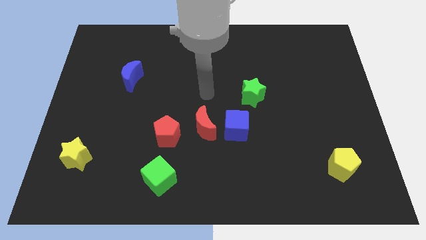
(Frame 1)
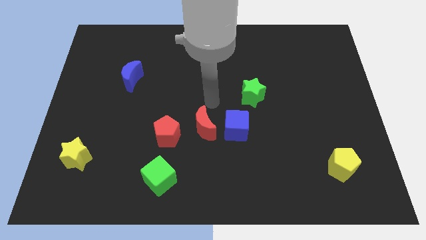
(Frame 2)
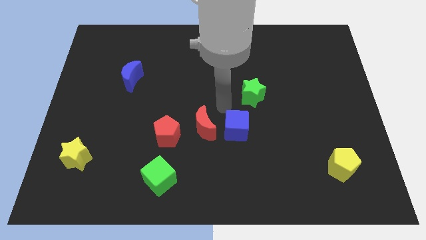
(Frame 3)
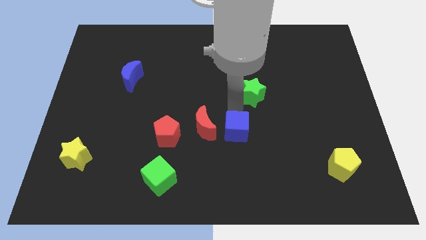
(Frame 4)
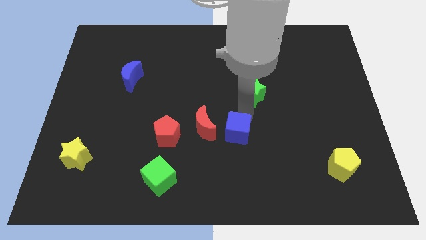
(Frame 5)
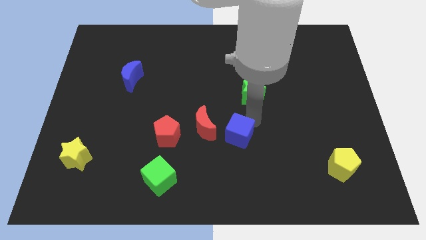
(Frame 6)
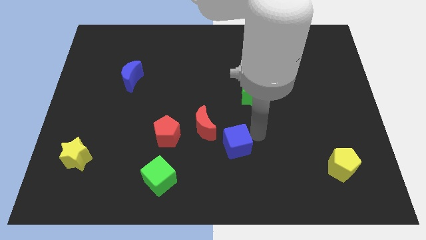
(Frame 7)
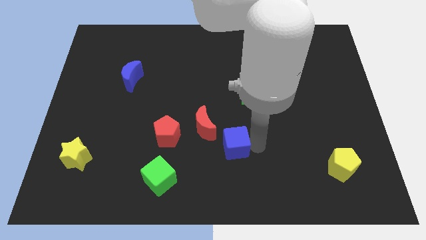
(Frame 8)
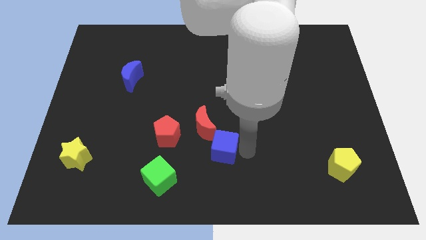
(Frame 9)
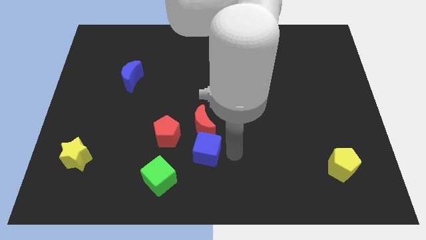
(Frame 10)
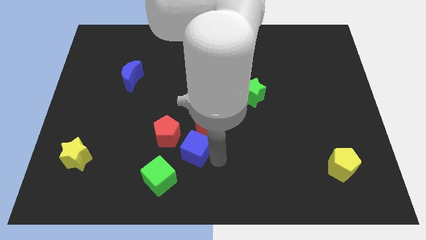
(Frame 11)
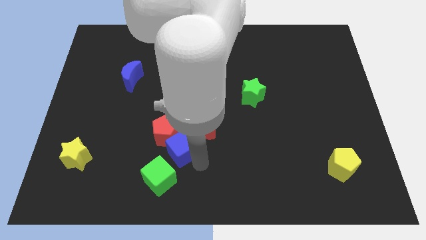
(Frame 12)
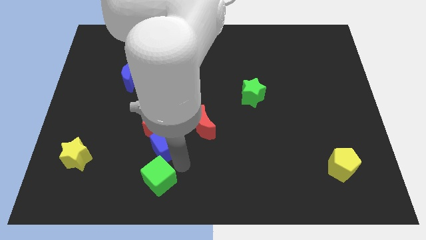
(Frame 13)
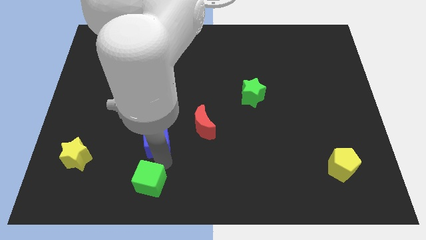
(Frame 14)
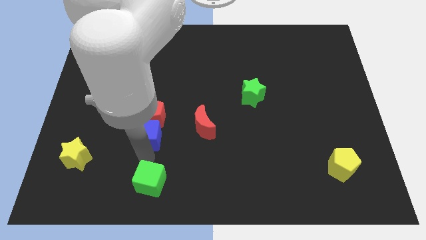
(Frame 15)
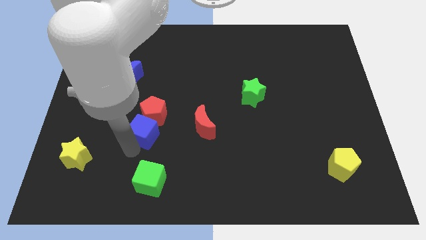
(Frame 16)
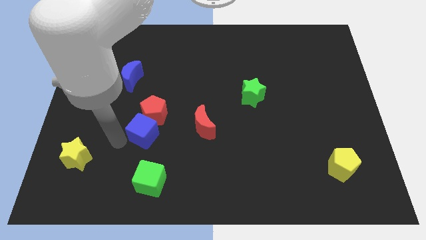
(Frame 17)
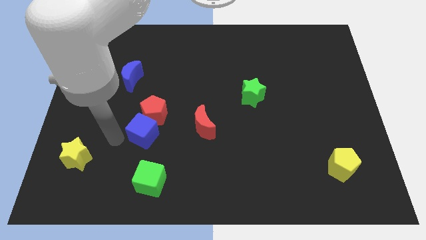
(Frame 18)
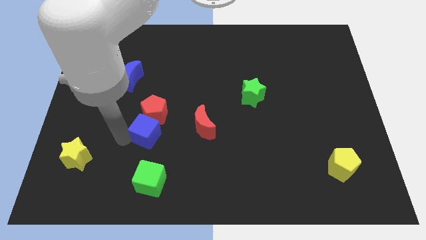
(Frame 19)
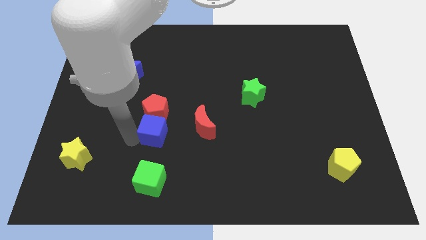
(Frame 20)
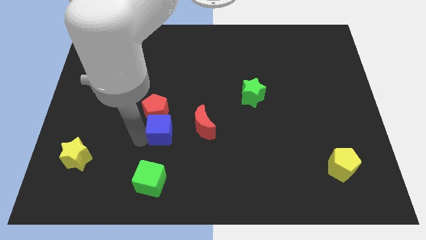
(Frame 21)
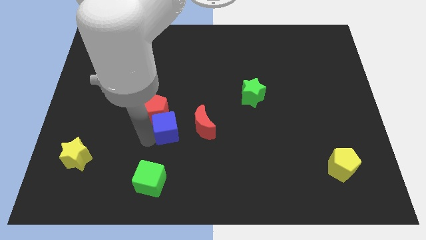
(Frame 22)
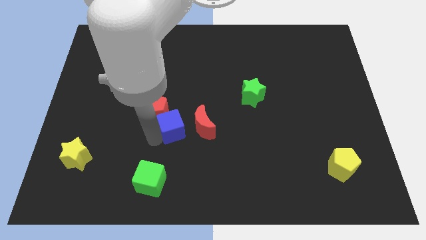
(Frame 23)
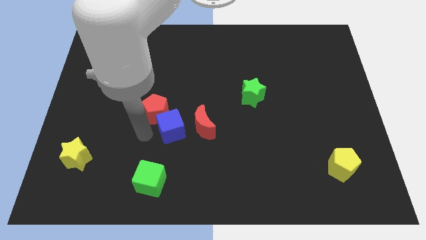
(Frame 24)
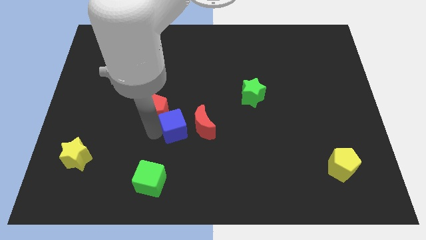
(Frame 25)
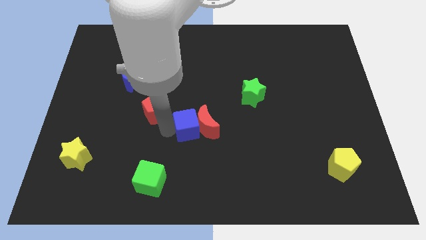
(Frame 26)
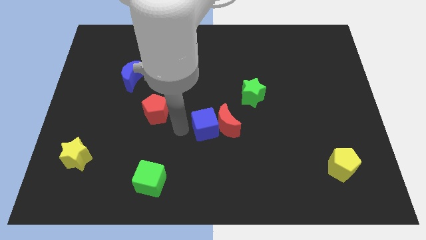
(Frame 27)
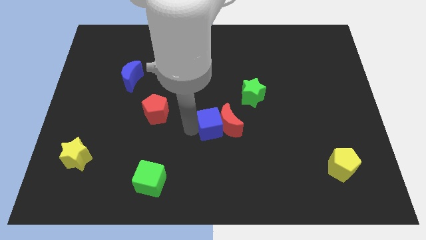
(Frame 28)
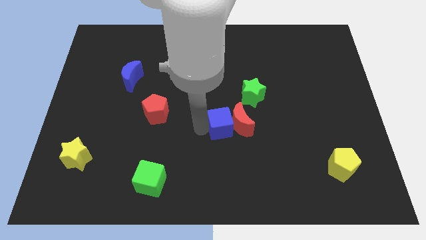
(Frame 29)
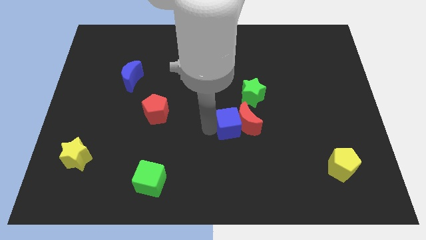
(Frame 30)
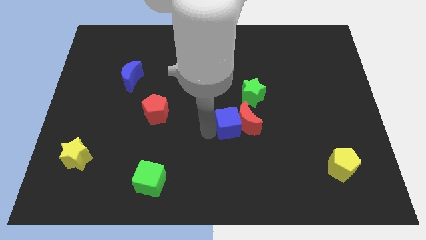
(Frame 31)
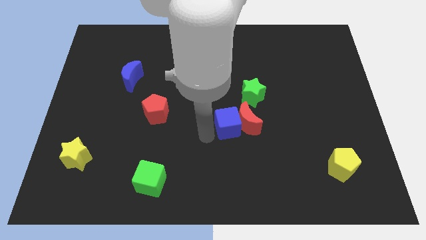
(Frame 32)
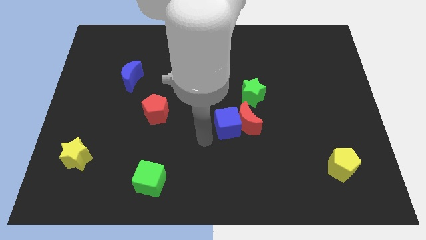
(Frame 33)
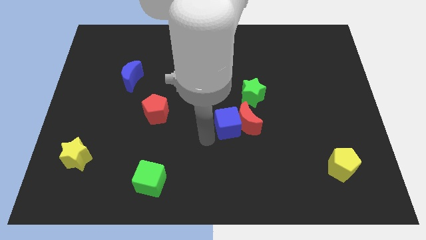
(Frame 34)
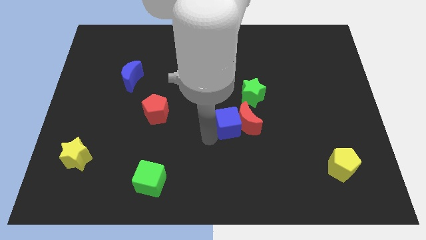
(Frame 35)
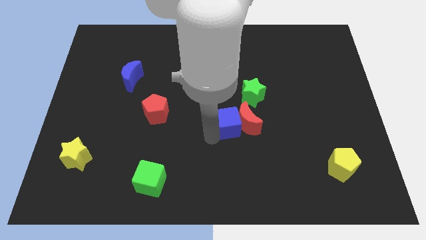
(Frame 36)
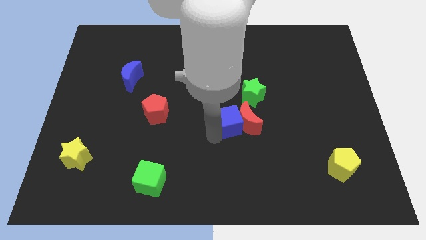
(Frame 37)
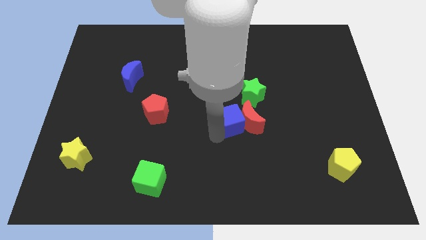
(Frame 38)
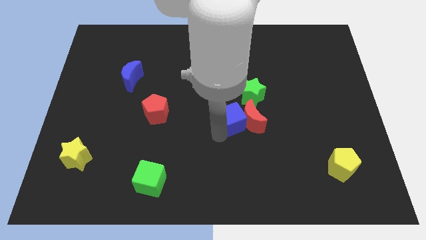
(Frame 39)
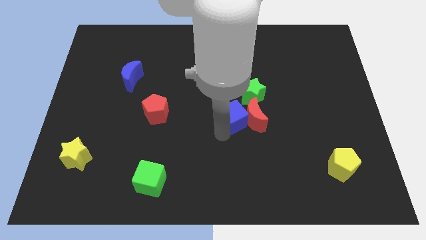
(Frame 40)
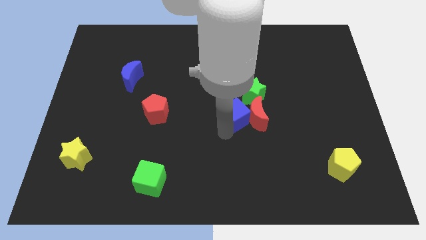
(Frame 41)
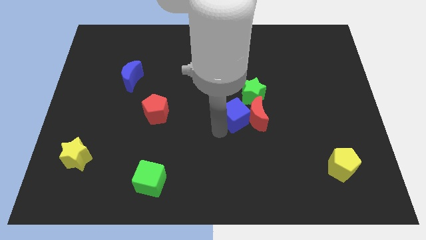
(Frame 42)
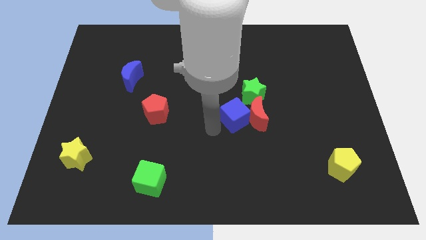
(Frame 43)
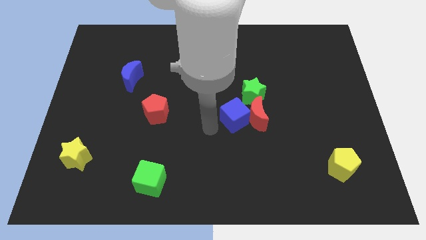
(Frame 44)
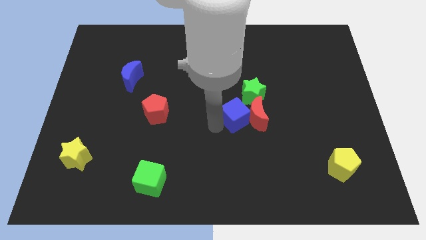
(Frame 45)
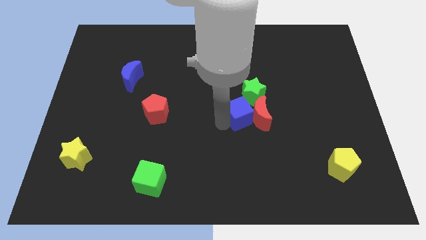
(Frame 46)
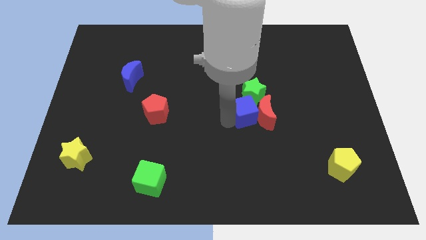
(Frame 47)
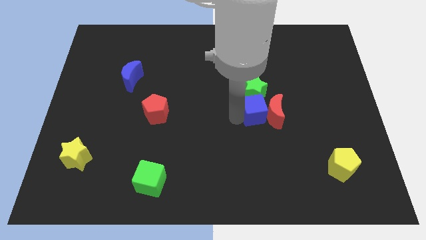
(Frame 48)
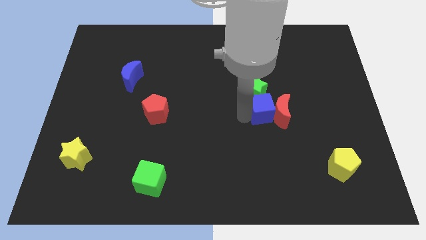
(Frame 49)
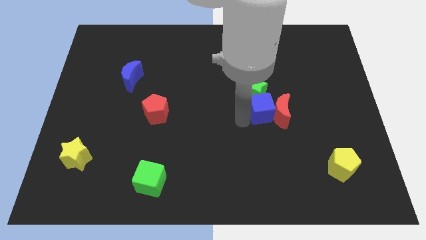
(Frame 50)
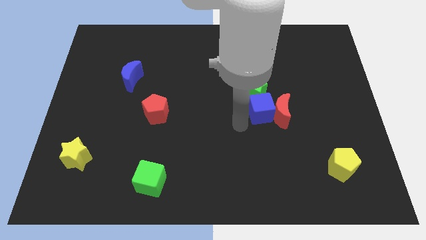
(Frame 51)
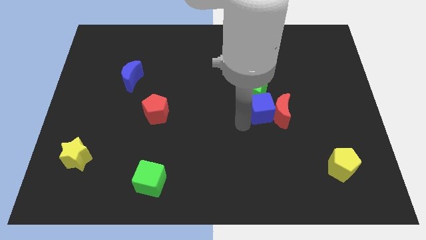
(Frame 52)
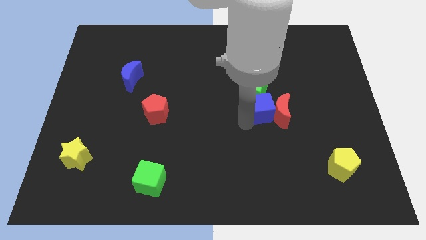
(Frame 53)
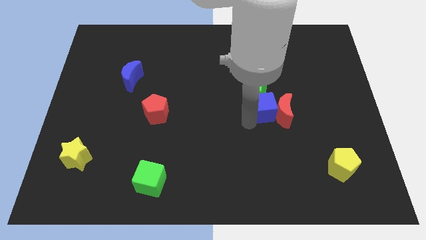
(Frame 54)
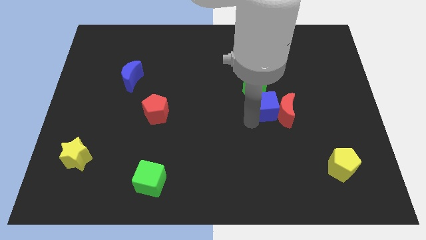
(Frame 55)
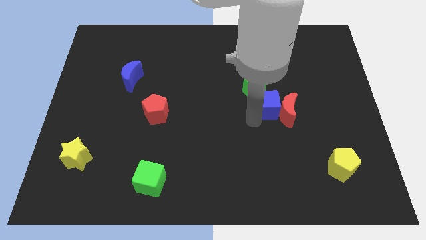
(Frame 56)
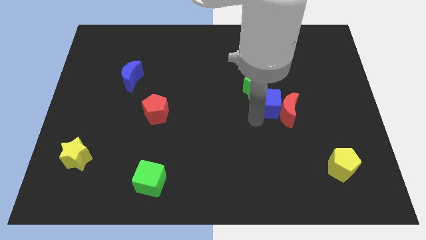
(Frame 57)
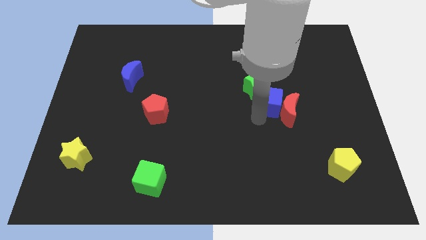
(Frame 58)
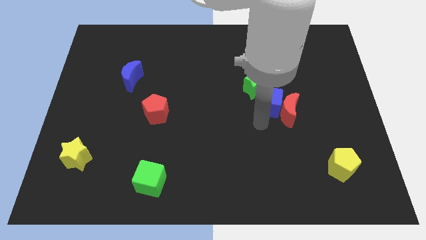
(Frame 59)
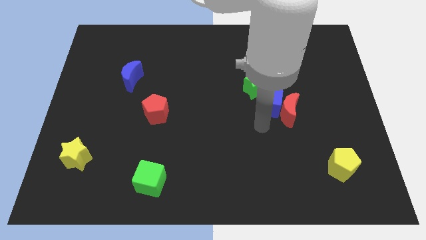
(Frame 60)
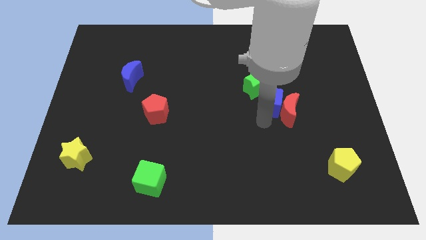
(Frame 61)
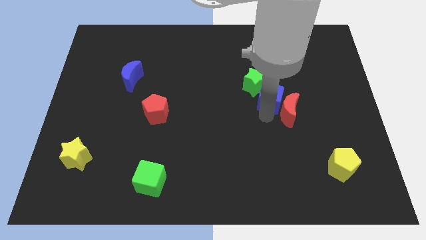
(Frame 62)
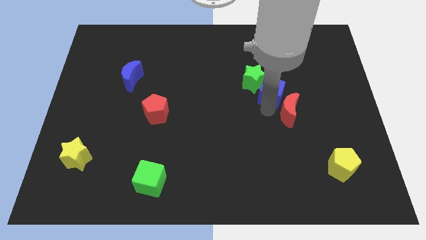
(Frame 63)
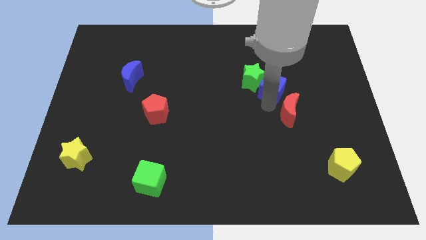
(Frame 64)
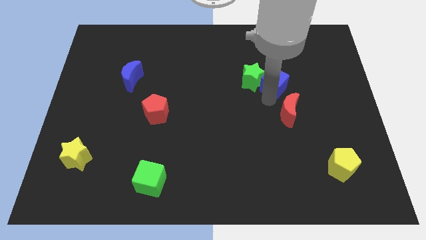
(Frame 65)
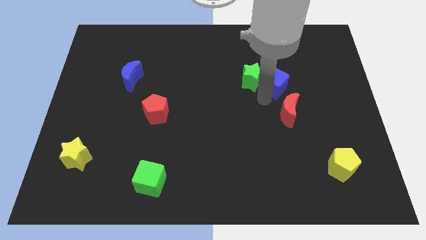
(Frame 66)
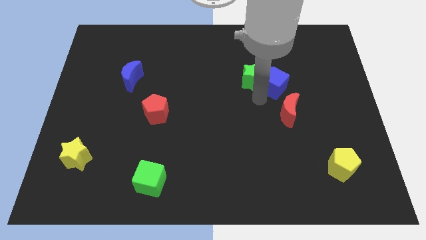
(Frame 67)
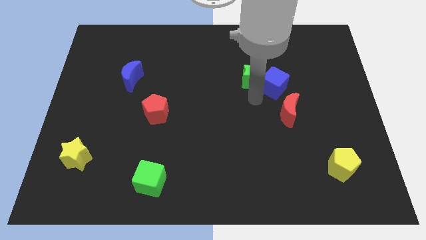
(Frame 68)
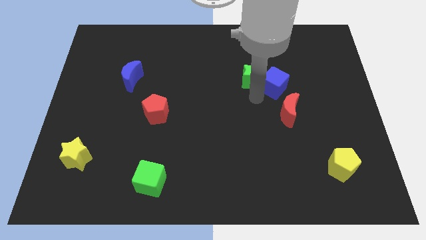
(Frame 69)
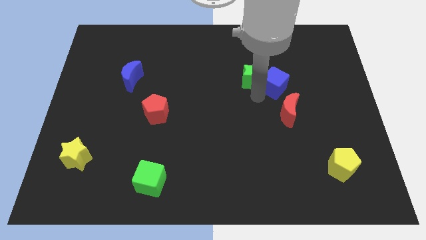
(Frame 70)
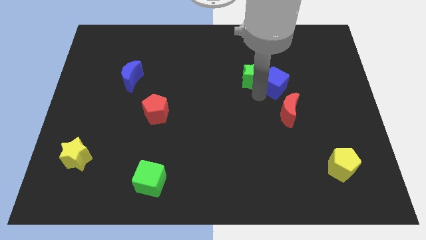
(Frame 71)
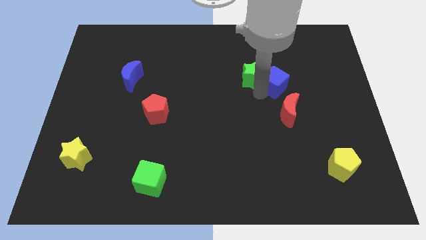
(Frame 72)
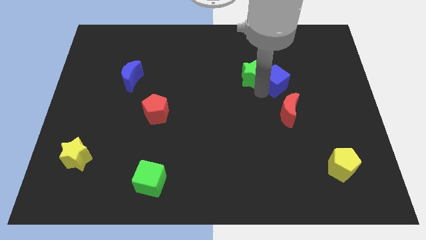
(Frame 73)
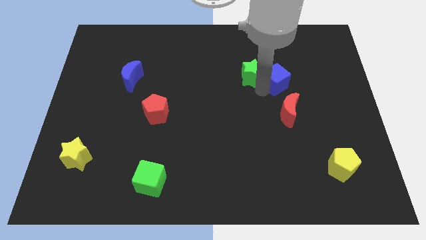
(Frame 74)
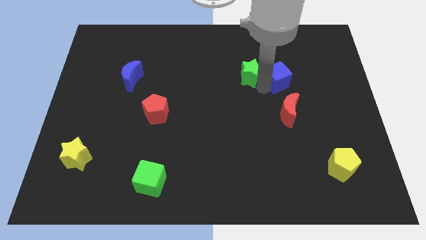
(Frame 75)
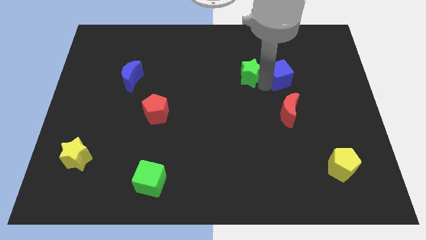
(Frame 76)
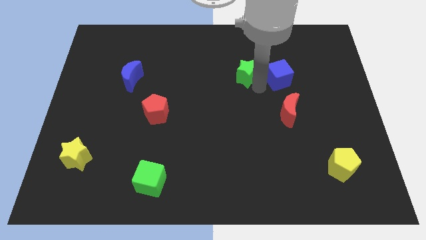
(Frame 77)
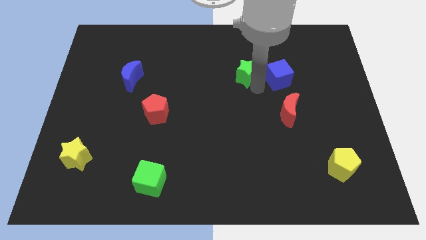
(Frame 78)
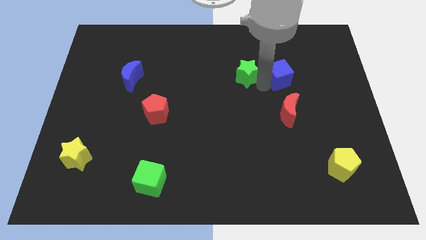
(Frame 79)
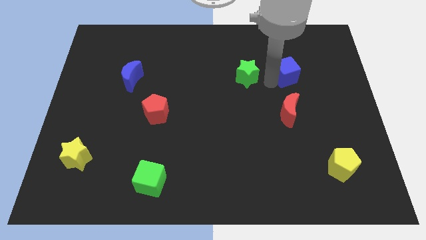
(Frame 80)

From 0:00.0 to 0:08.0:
push the blue cube diagonally upwards and right
